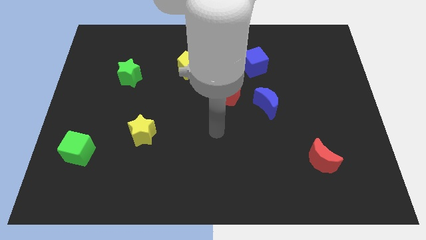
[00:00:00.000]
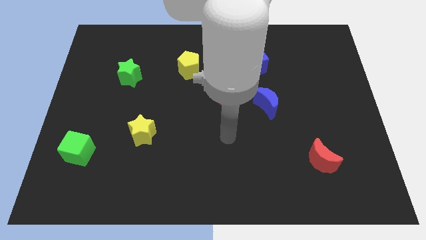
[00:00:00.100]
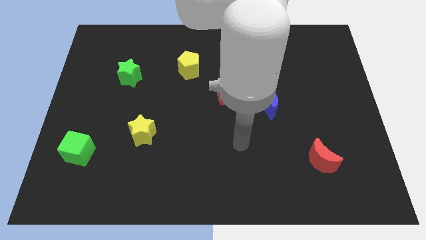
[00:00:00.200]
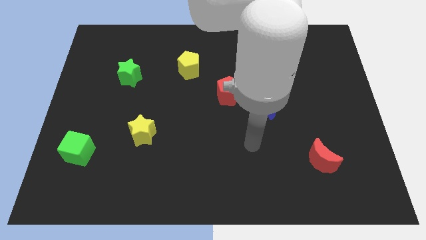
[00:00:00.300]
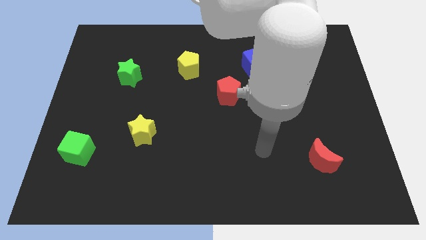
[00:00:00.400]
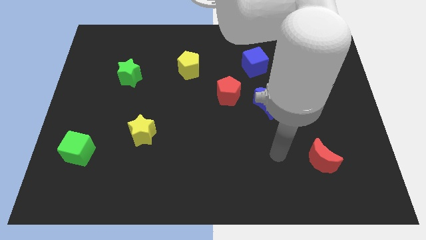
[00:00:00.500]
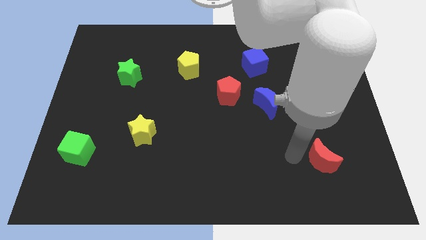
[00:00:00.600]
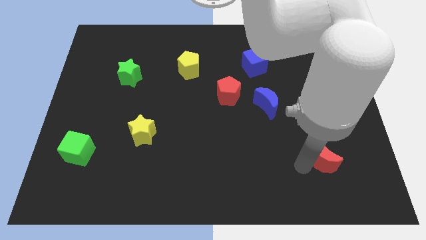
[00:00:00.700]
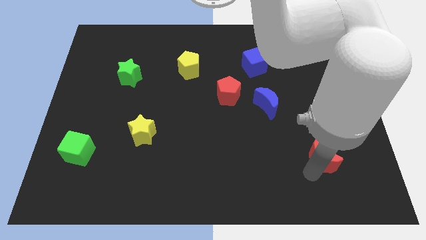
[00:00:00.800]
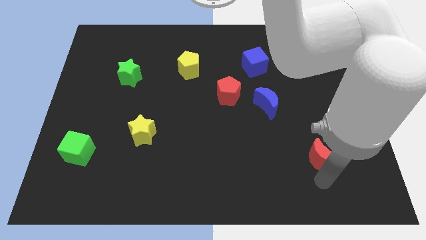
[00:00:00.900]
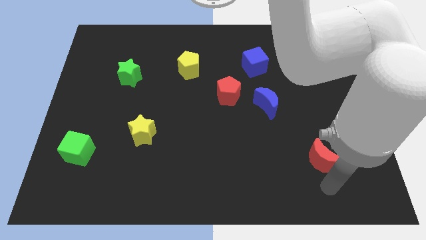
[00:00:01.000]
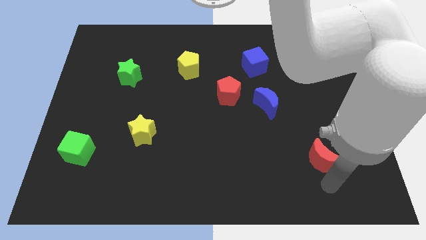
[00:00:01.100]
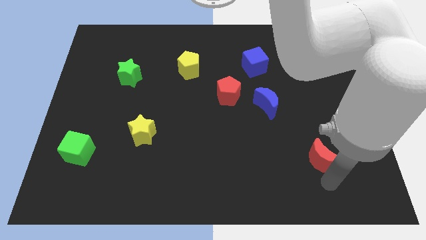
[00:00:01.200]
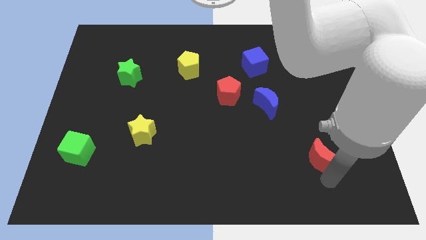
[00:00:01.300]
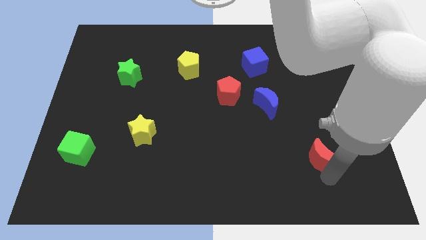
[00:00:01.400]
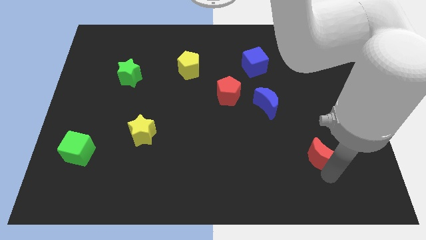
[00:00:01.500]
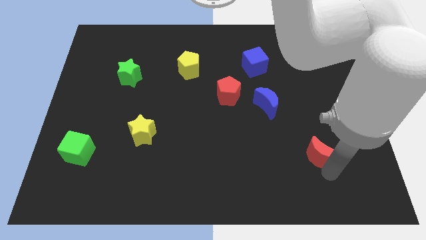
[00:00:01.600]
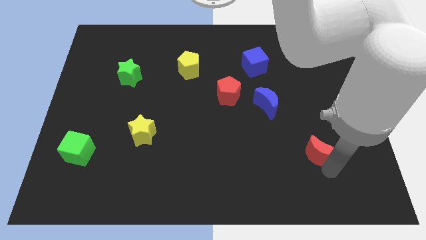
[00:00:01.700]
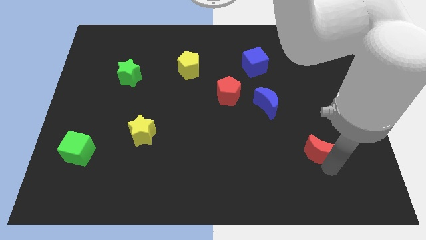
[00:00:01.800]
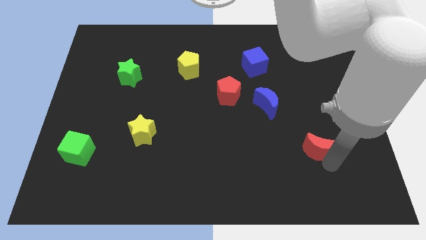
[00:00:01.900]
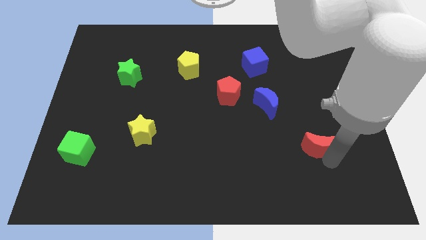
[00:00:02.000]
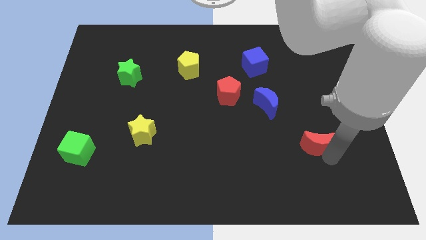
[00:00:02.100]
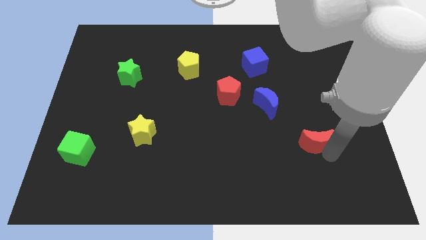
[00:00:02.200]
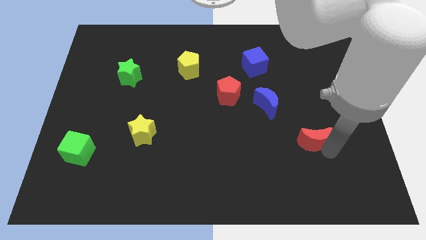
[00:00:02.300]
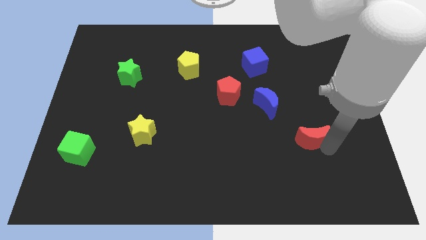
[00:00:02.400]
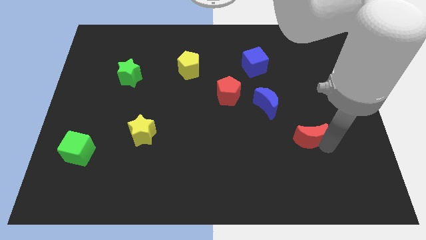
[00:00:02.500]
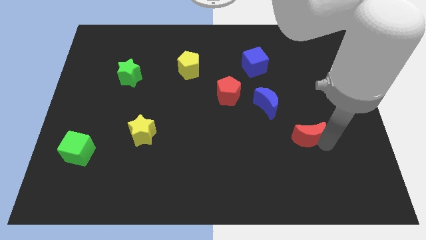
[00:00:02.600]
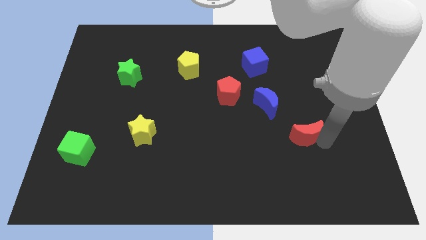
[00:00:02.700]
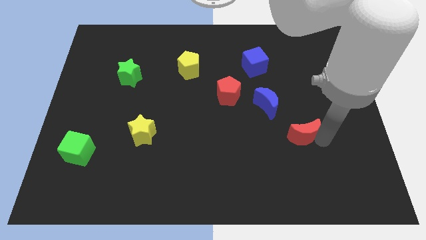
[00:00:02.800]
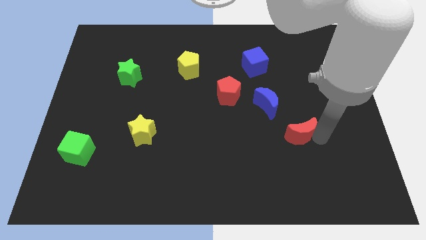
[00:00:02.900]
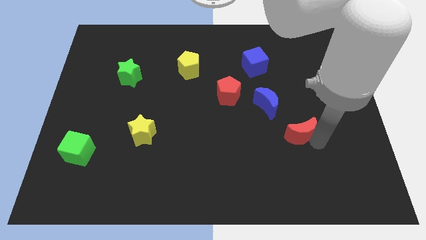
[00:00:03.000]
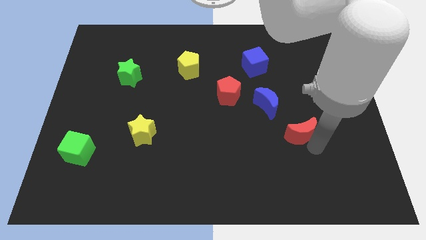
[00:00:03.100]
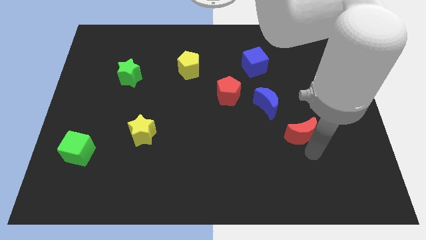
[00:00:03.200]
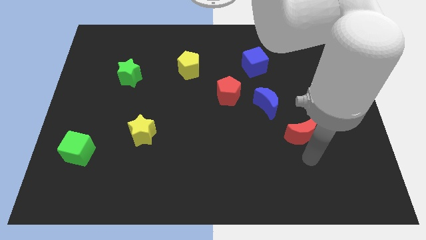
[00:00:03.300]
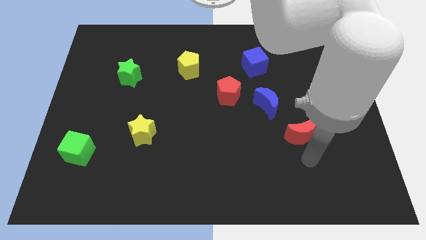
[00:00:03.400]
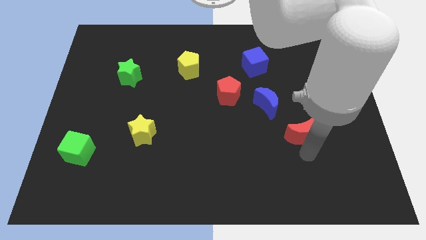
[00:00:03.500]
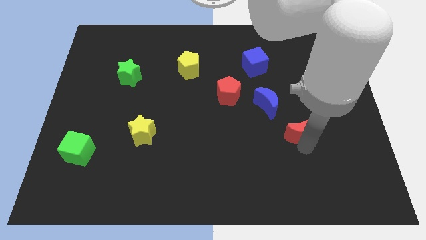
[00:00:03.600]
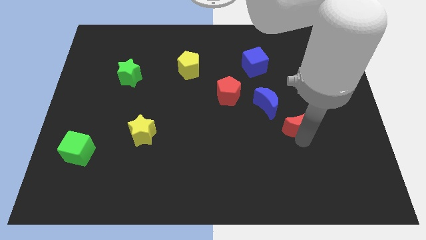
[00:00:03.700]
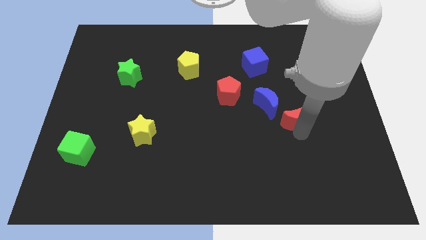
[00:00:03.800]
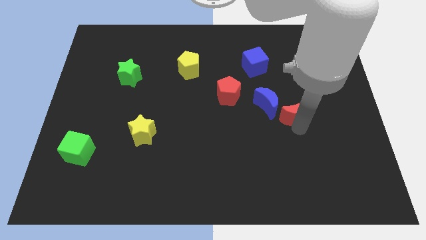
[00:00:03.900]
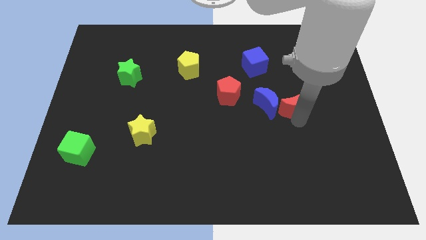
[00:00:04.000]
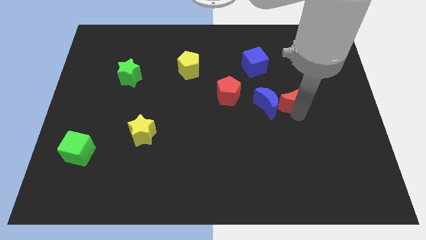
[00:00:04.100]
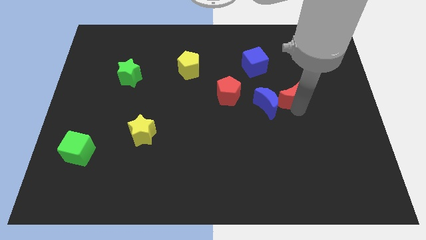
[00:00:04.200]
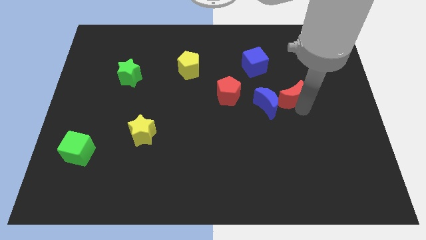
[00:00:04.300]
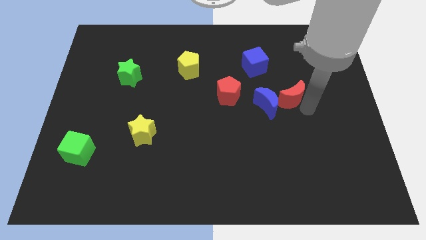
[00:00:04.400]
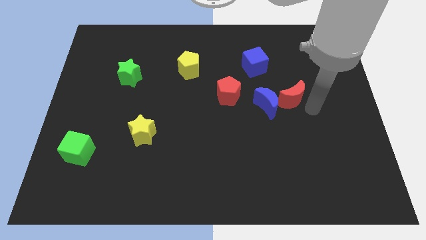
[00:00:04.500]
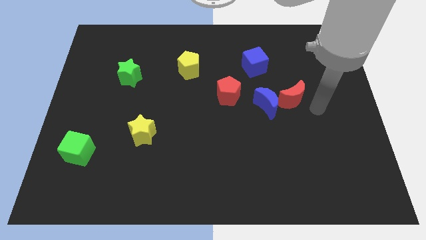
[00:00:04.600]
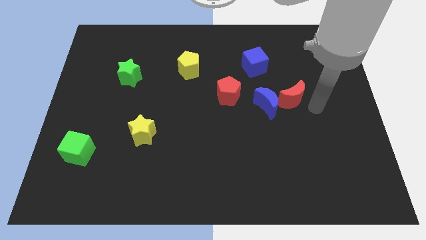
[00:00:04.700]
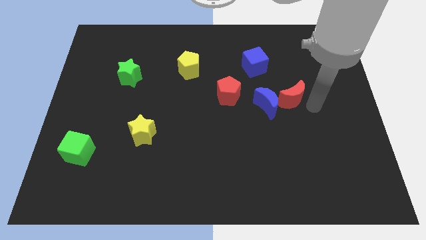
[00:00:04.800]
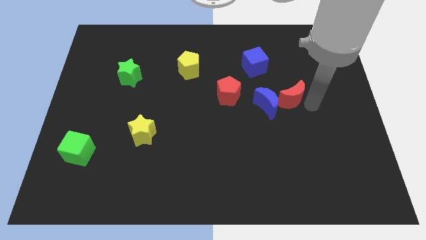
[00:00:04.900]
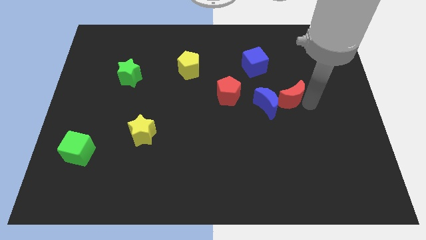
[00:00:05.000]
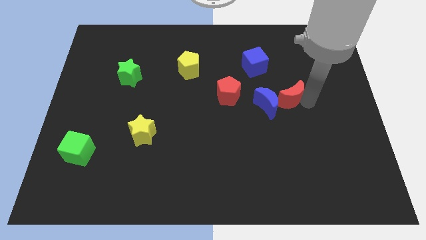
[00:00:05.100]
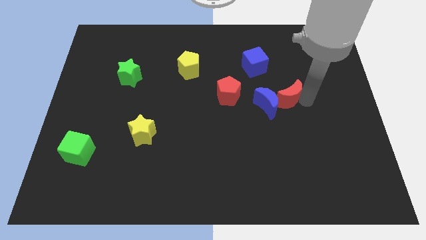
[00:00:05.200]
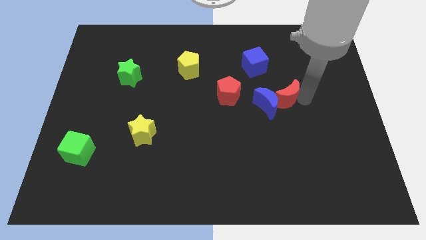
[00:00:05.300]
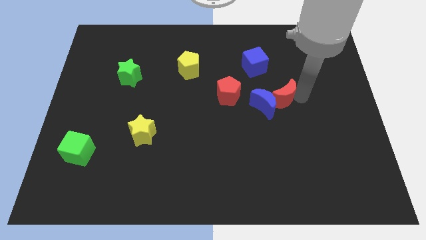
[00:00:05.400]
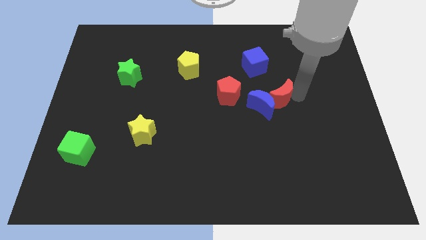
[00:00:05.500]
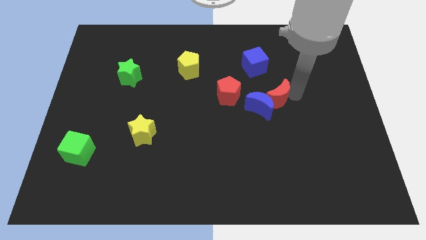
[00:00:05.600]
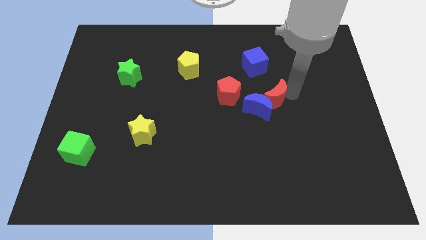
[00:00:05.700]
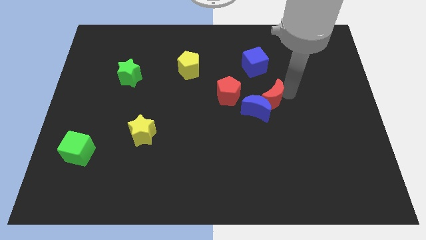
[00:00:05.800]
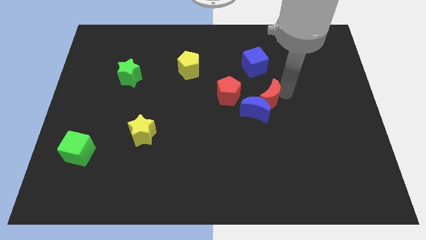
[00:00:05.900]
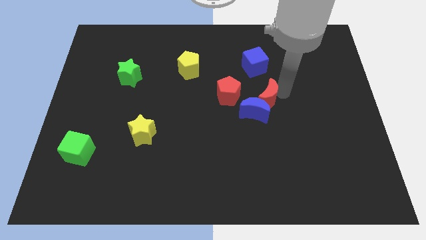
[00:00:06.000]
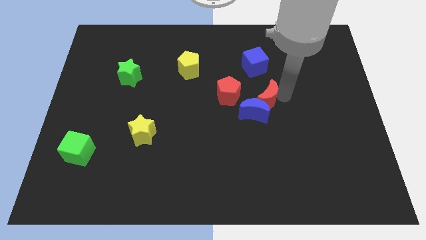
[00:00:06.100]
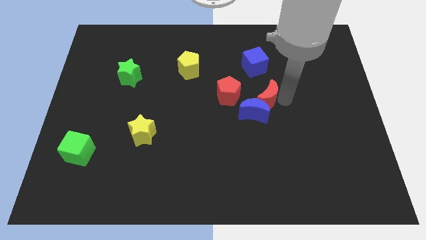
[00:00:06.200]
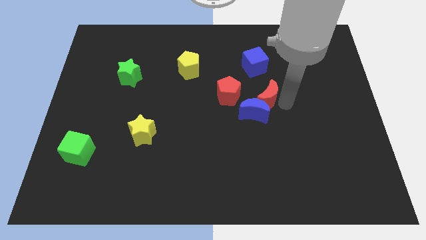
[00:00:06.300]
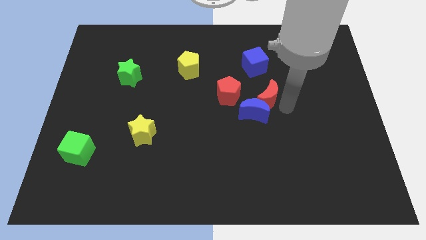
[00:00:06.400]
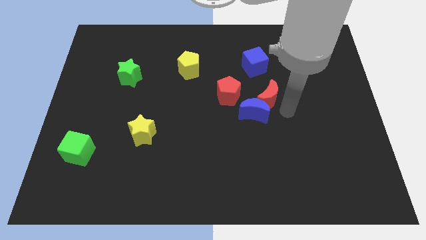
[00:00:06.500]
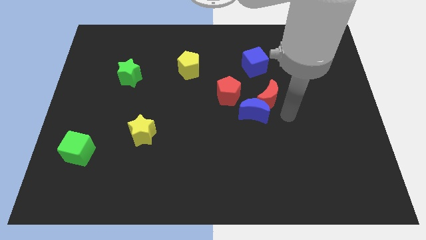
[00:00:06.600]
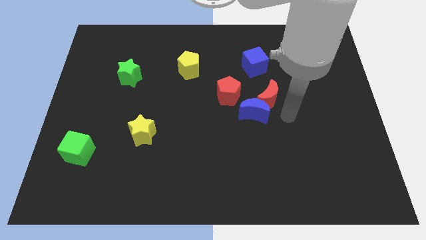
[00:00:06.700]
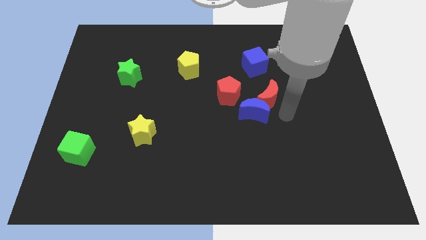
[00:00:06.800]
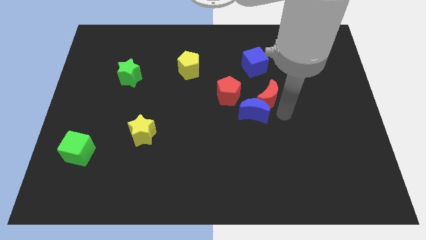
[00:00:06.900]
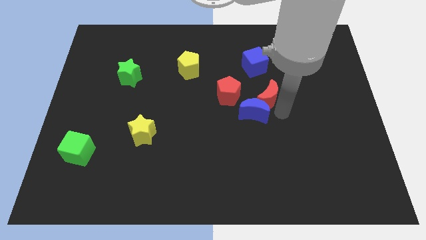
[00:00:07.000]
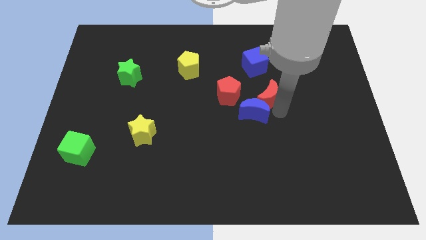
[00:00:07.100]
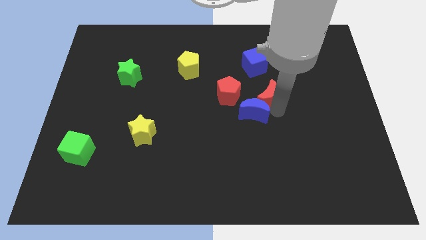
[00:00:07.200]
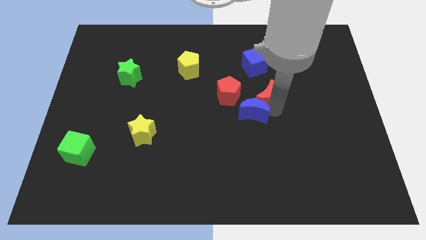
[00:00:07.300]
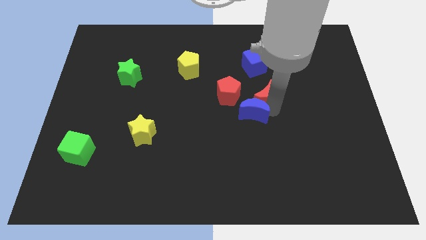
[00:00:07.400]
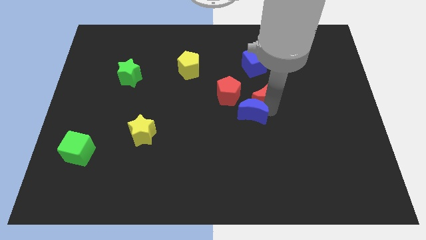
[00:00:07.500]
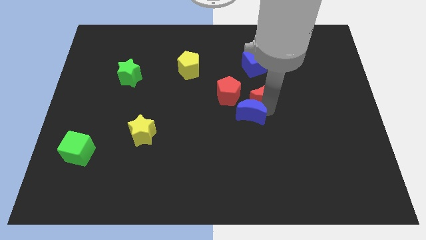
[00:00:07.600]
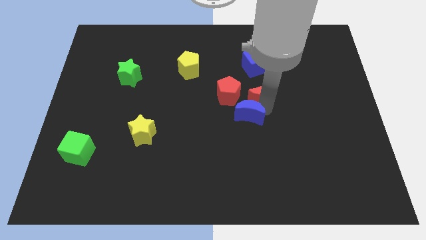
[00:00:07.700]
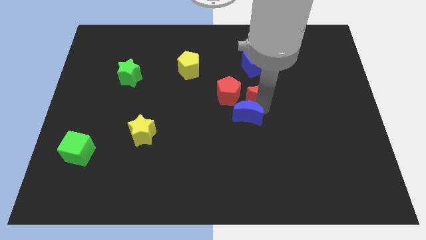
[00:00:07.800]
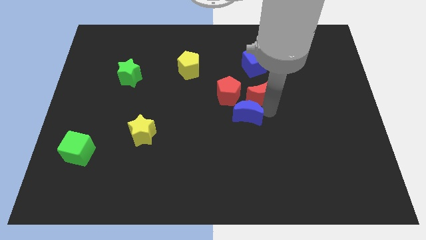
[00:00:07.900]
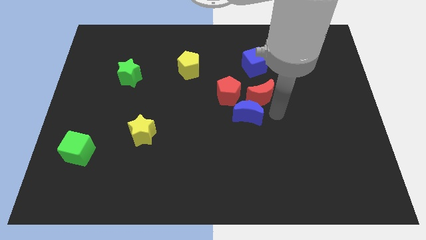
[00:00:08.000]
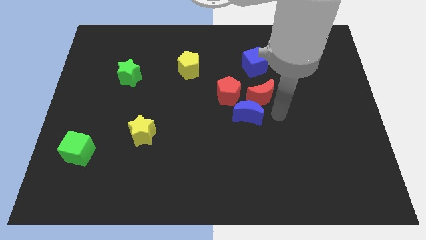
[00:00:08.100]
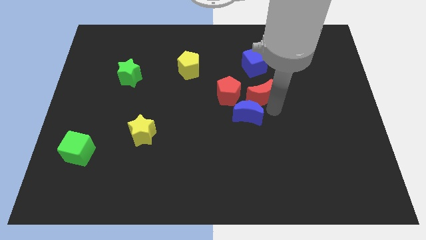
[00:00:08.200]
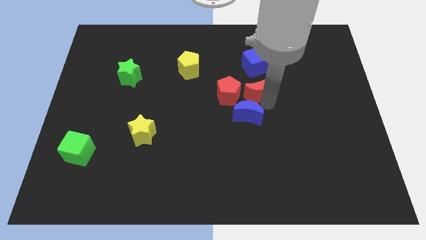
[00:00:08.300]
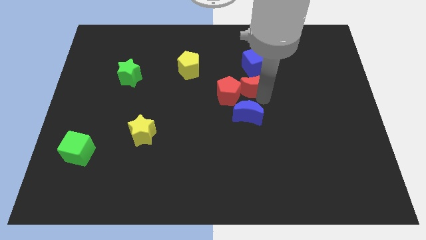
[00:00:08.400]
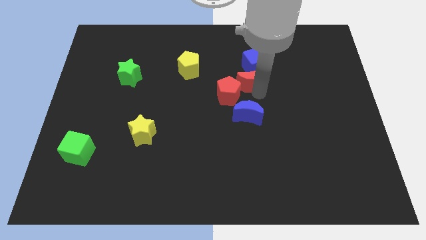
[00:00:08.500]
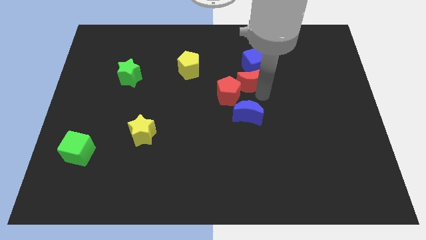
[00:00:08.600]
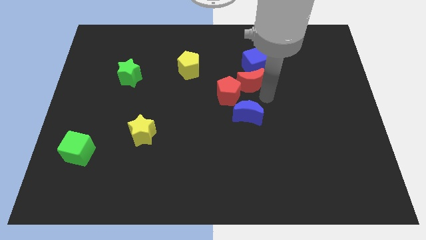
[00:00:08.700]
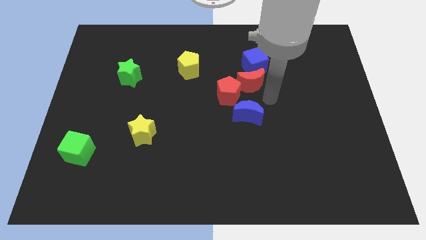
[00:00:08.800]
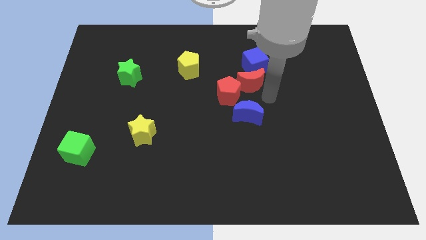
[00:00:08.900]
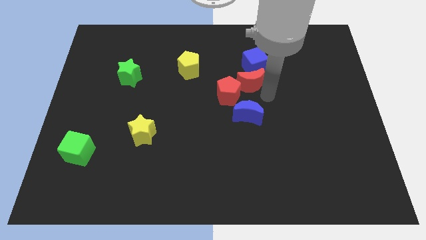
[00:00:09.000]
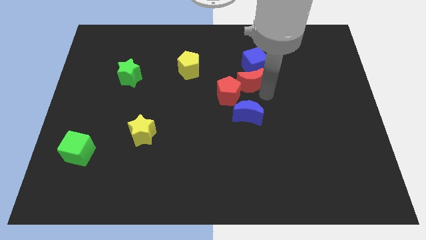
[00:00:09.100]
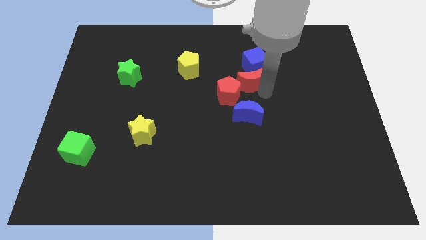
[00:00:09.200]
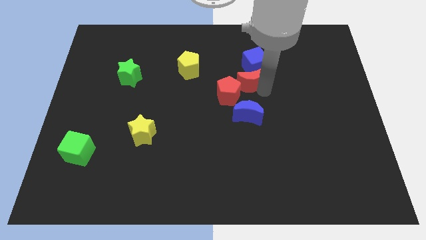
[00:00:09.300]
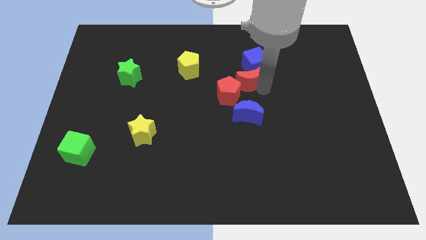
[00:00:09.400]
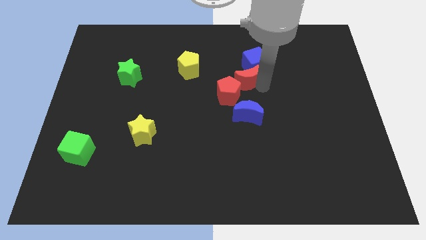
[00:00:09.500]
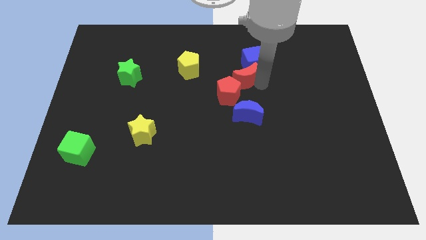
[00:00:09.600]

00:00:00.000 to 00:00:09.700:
slide the red moon above the red pentagon
